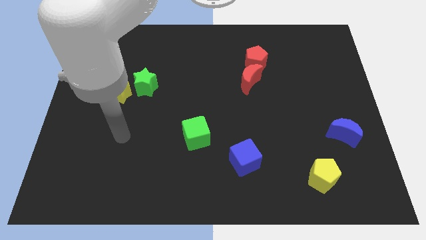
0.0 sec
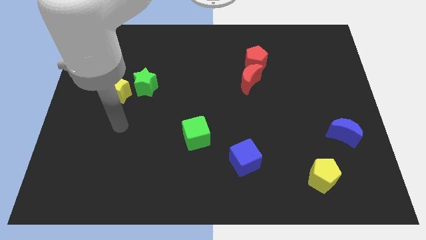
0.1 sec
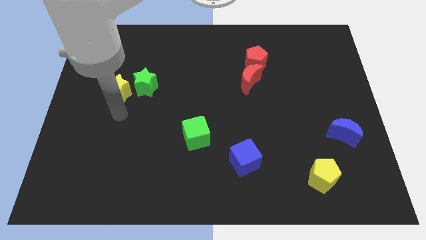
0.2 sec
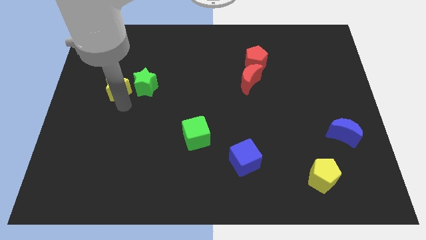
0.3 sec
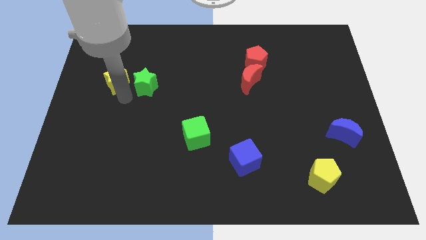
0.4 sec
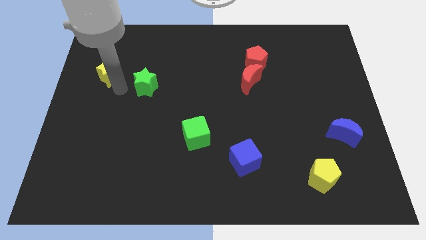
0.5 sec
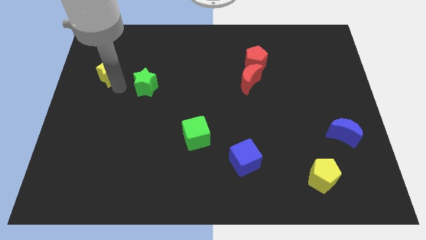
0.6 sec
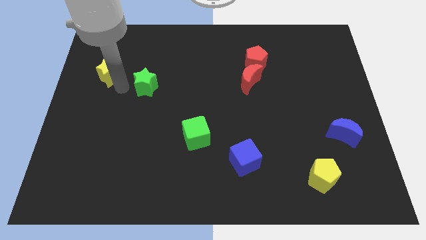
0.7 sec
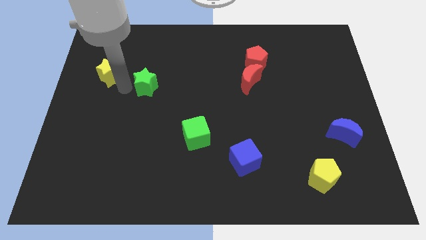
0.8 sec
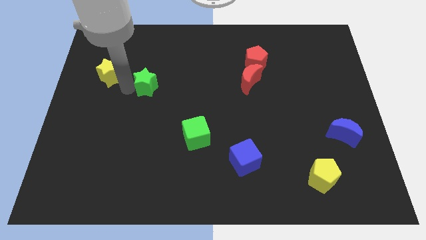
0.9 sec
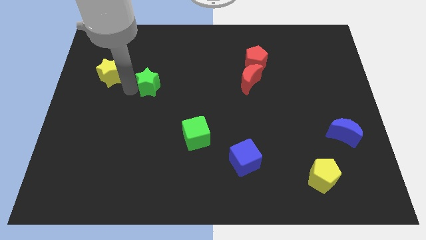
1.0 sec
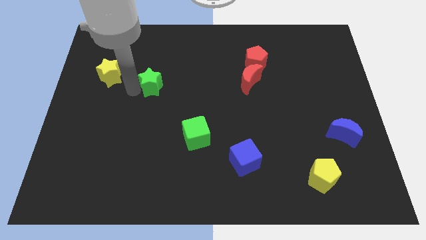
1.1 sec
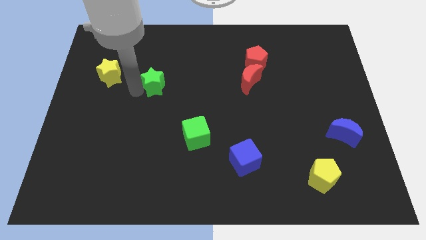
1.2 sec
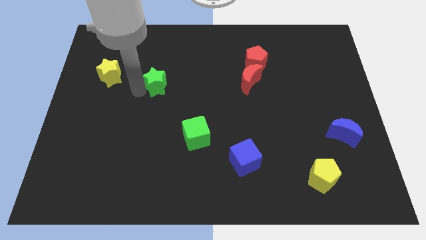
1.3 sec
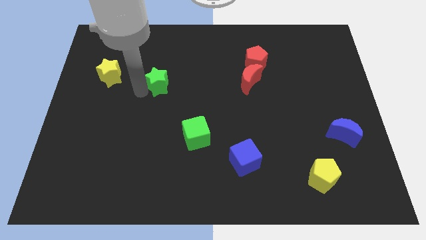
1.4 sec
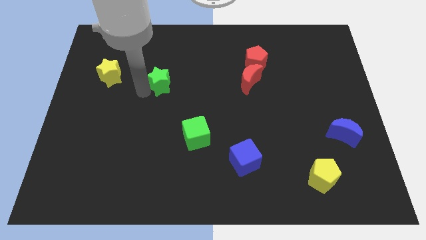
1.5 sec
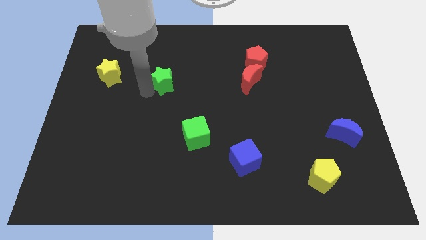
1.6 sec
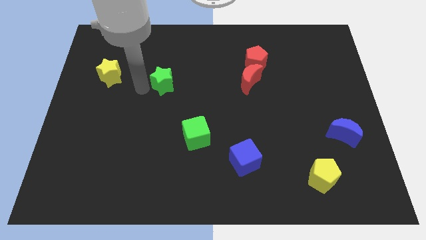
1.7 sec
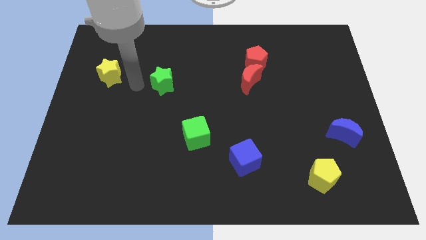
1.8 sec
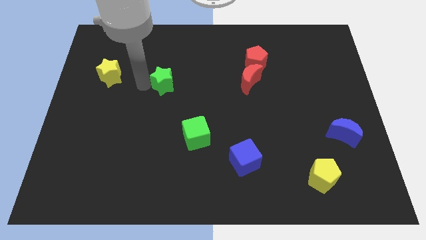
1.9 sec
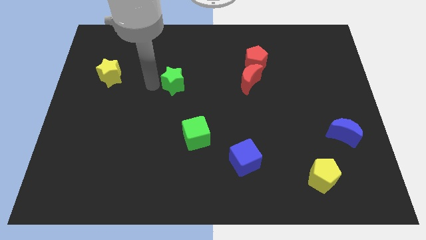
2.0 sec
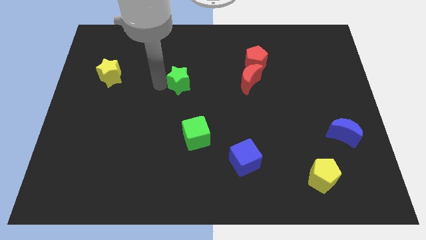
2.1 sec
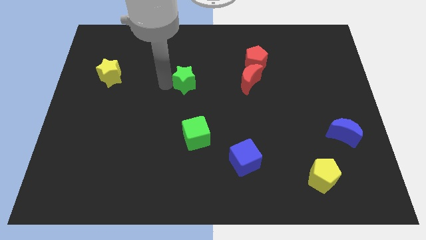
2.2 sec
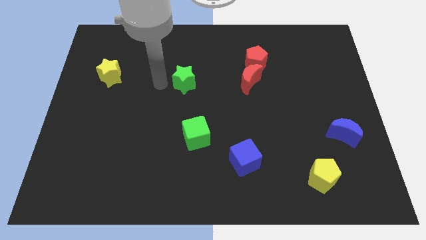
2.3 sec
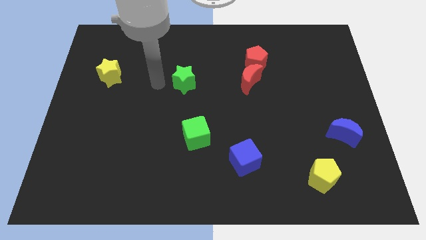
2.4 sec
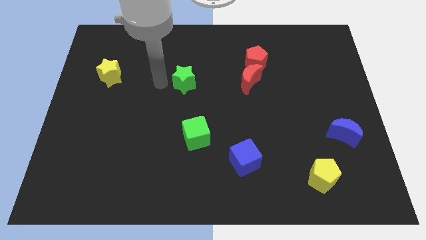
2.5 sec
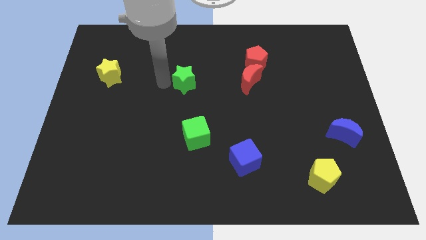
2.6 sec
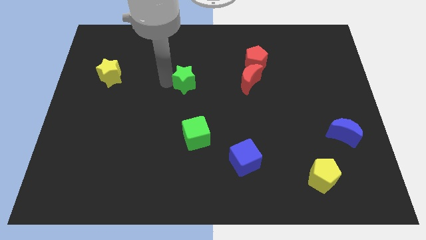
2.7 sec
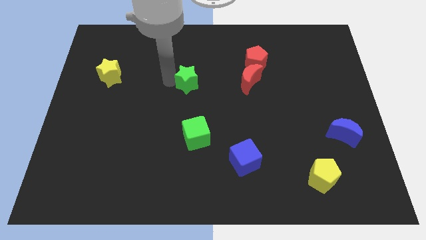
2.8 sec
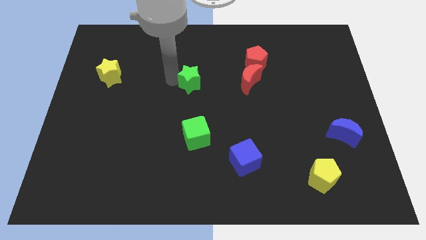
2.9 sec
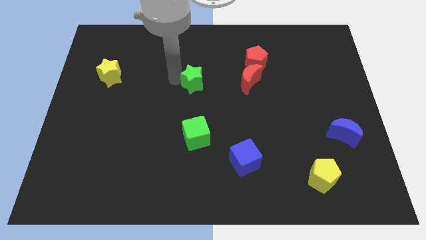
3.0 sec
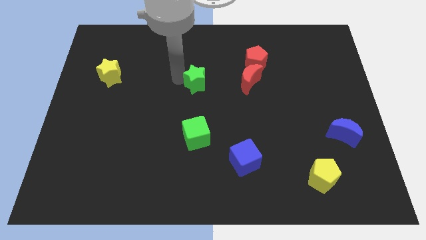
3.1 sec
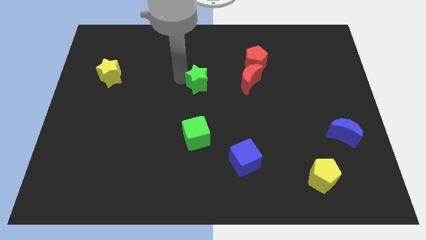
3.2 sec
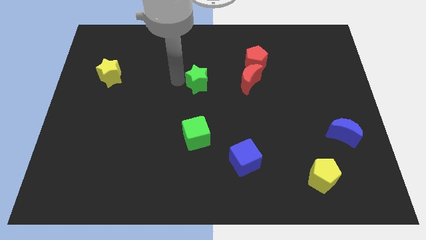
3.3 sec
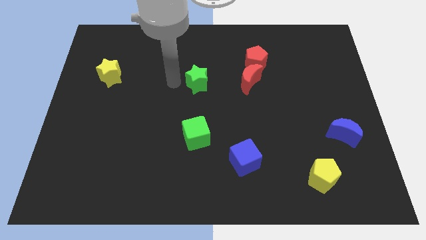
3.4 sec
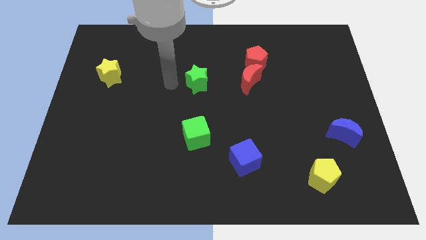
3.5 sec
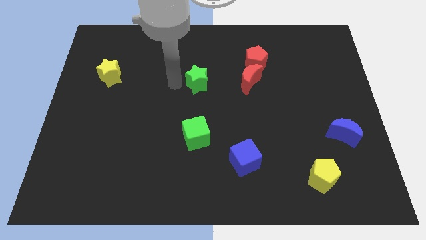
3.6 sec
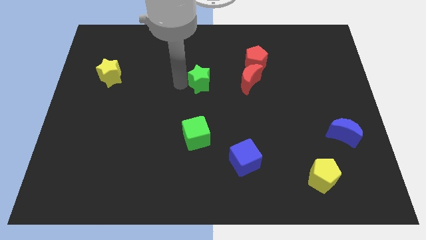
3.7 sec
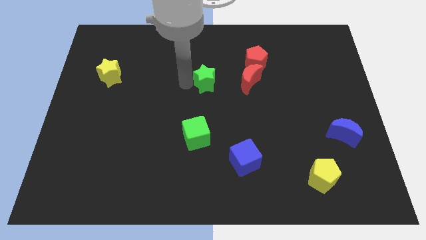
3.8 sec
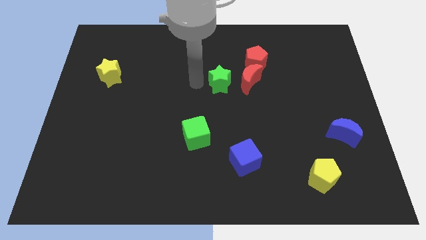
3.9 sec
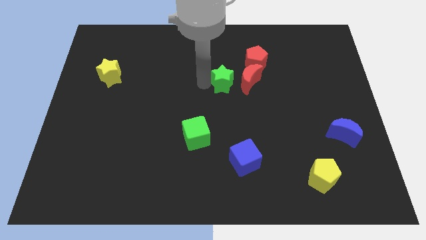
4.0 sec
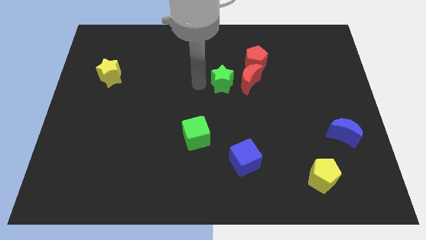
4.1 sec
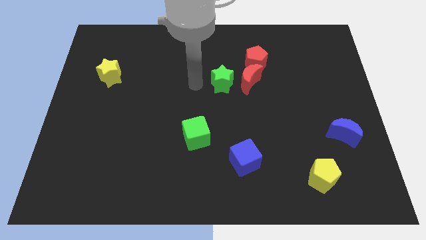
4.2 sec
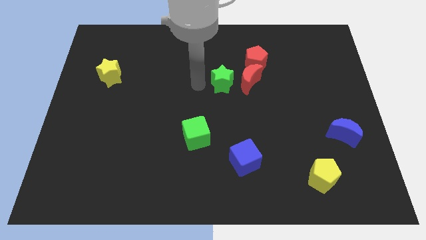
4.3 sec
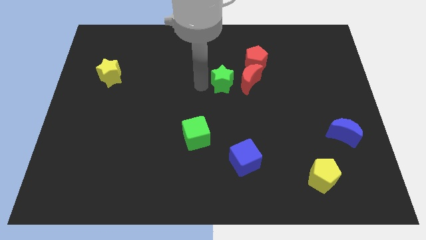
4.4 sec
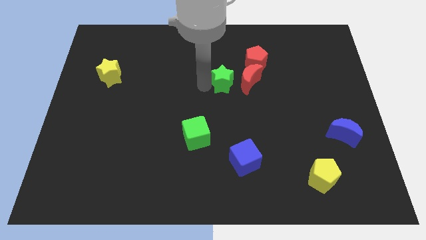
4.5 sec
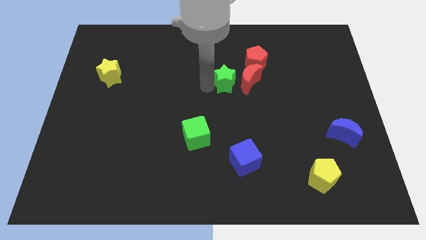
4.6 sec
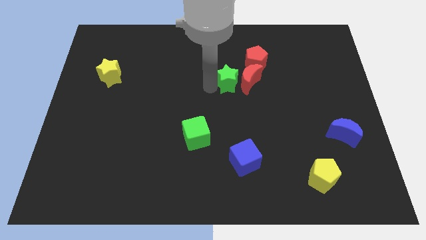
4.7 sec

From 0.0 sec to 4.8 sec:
slide the green star close to the red moon

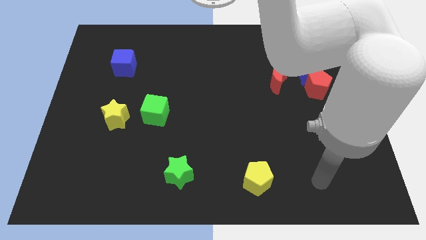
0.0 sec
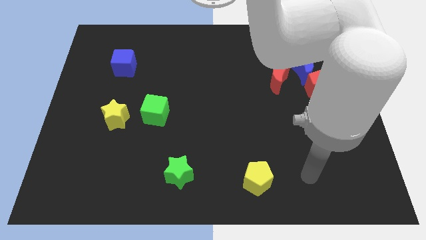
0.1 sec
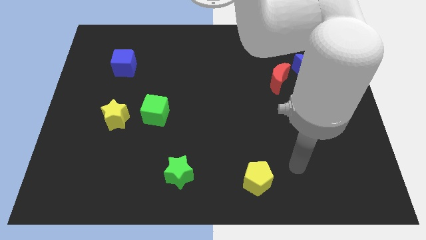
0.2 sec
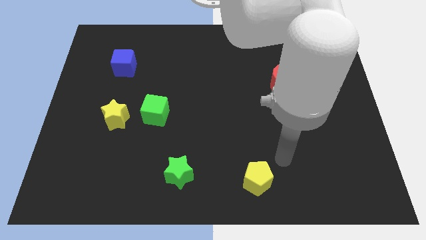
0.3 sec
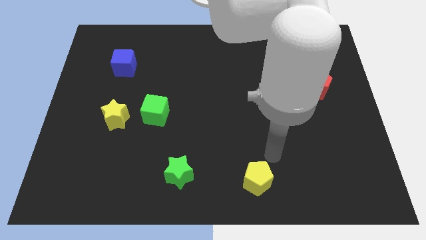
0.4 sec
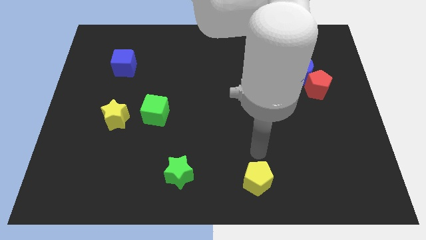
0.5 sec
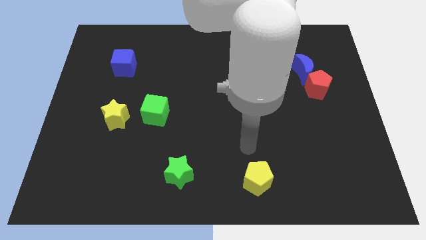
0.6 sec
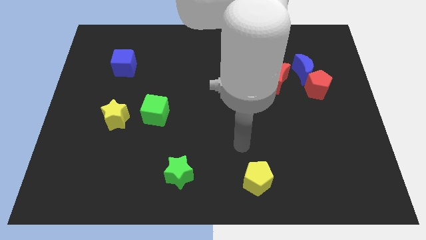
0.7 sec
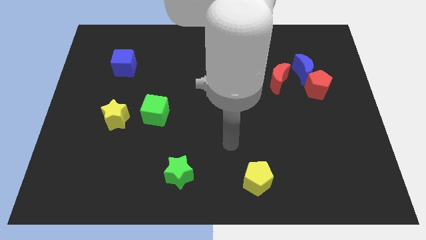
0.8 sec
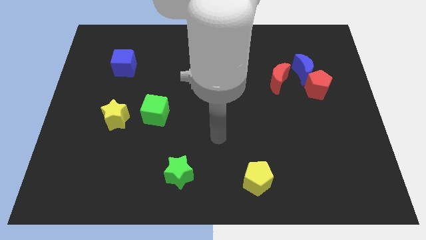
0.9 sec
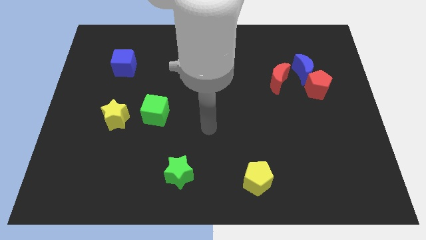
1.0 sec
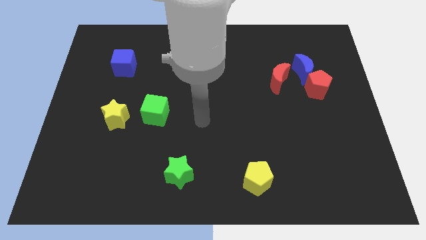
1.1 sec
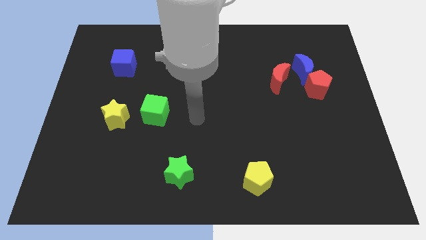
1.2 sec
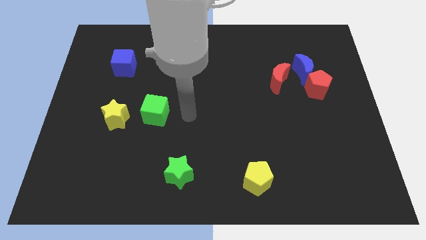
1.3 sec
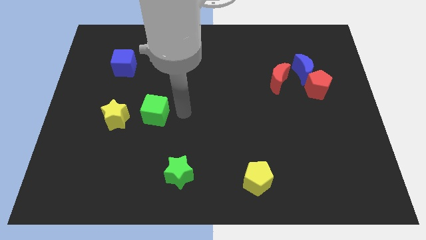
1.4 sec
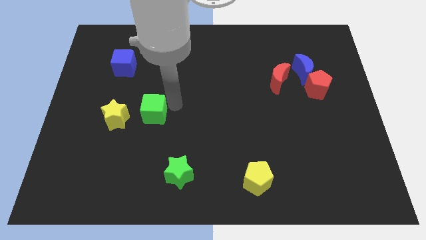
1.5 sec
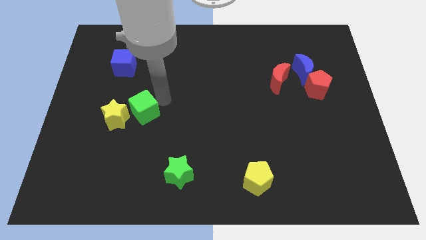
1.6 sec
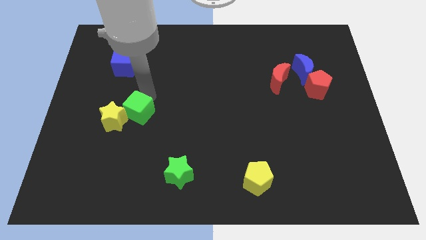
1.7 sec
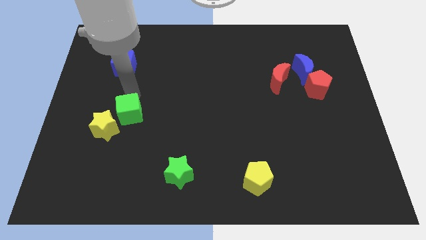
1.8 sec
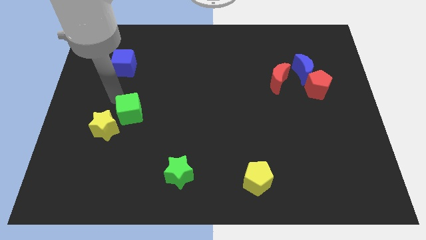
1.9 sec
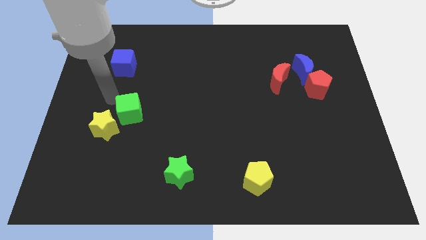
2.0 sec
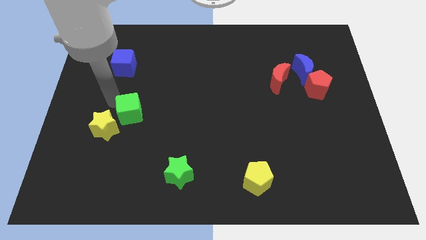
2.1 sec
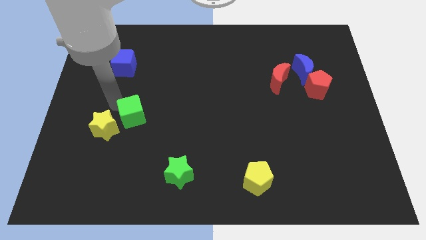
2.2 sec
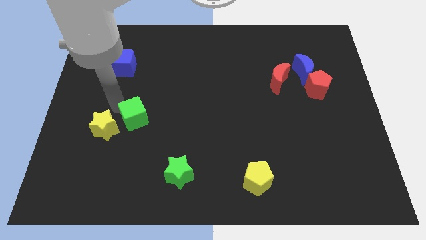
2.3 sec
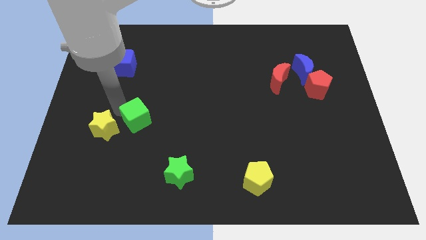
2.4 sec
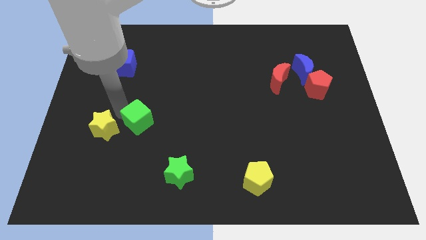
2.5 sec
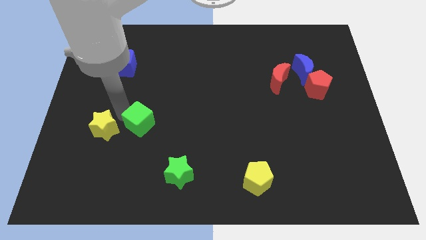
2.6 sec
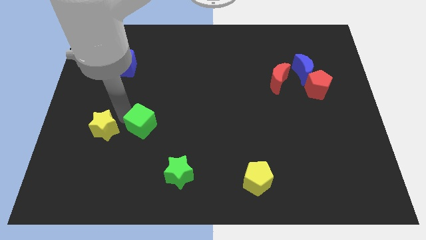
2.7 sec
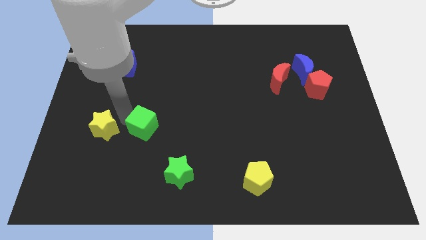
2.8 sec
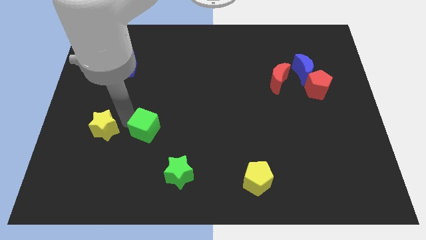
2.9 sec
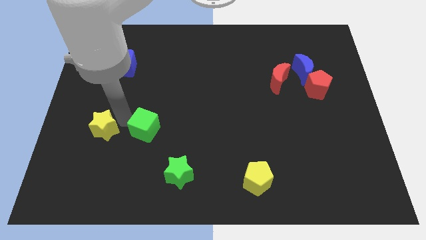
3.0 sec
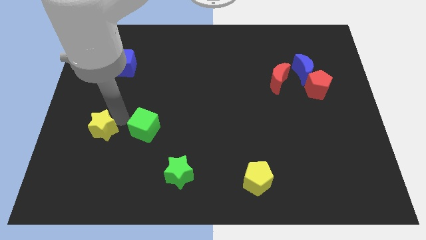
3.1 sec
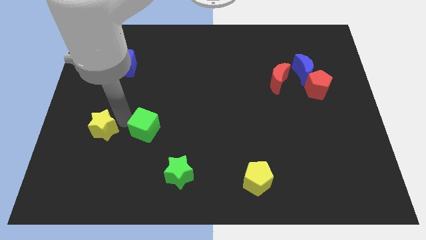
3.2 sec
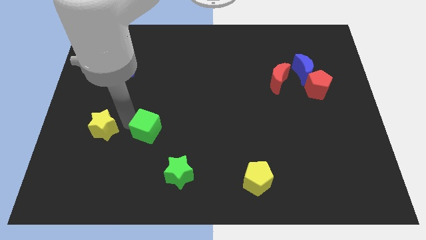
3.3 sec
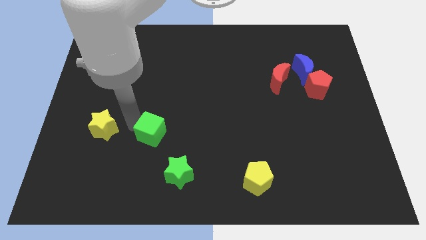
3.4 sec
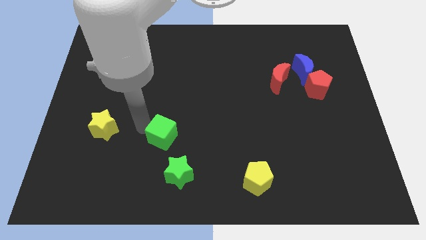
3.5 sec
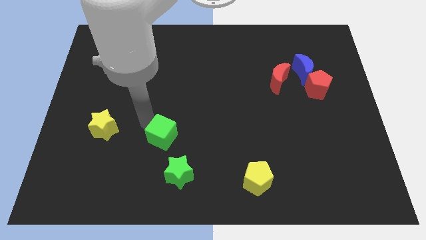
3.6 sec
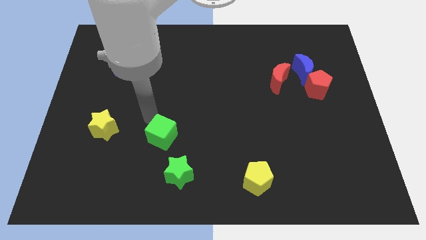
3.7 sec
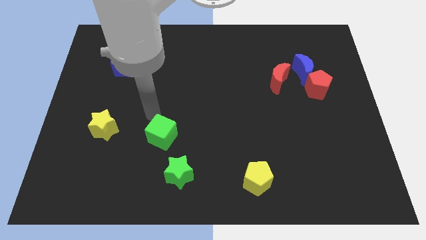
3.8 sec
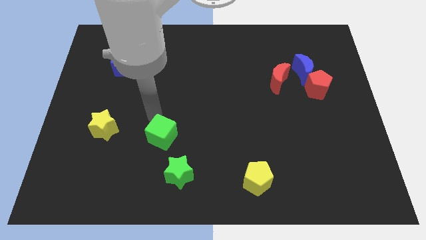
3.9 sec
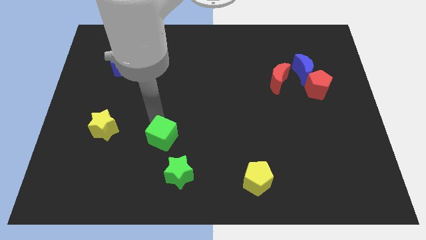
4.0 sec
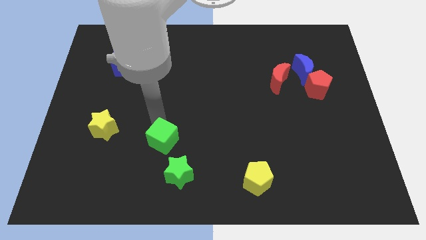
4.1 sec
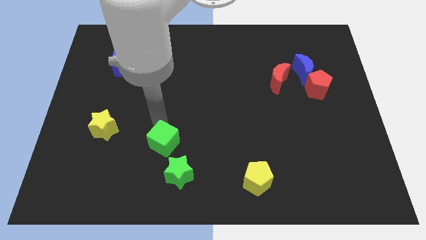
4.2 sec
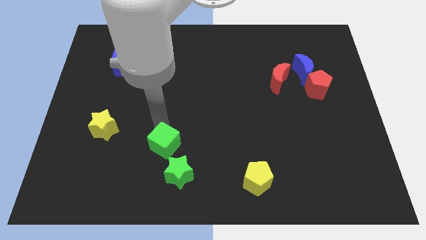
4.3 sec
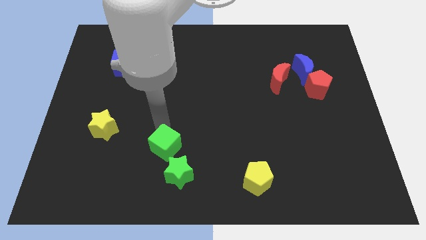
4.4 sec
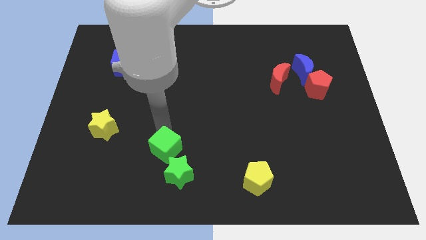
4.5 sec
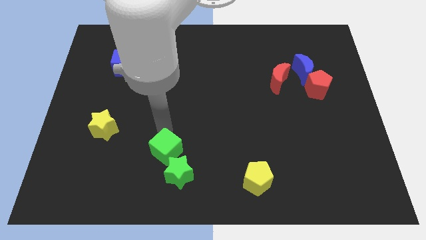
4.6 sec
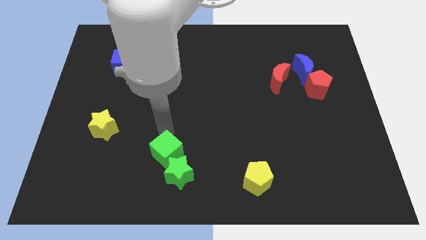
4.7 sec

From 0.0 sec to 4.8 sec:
slide the green cube towards the green star
